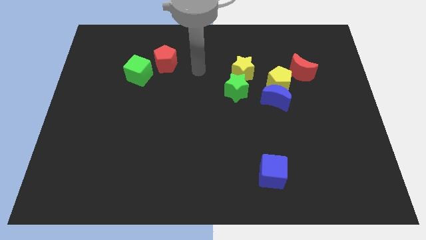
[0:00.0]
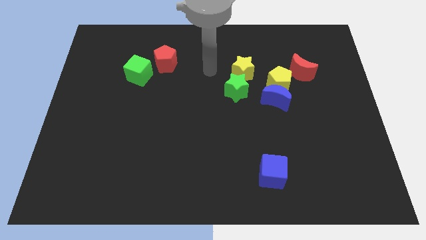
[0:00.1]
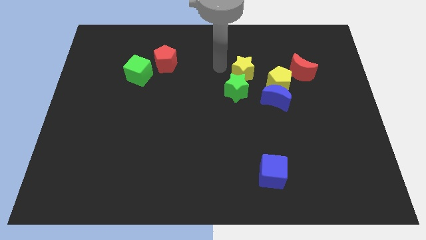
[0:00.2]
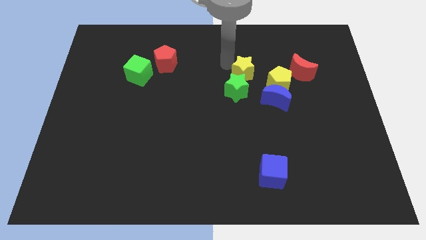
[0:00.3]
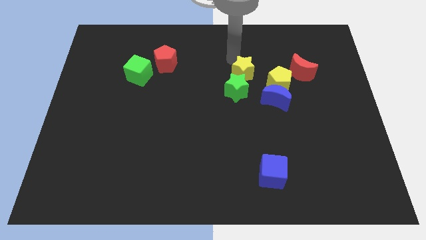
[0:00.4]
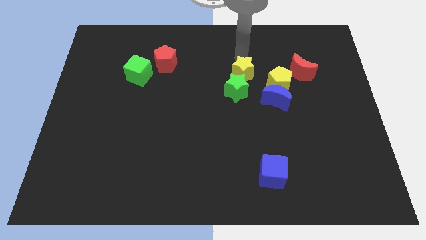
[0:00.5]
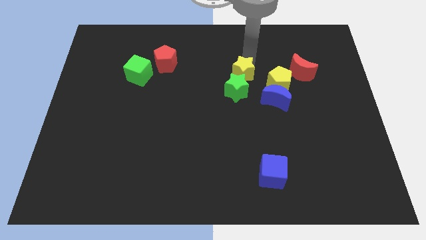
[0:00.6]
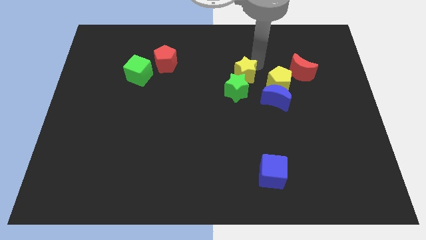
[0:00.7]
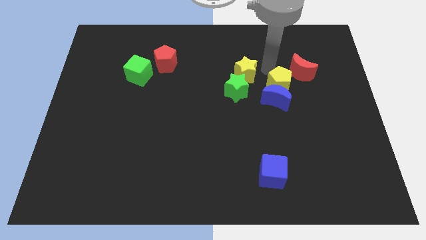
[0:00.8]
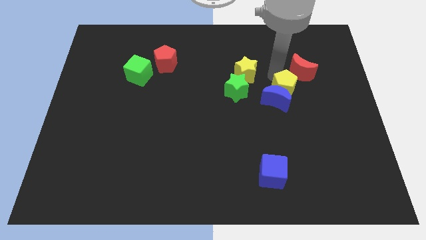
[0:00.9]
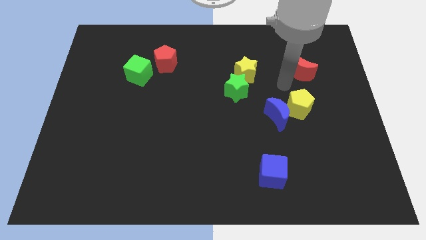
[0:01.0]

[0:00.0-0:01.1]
move the red moon away from the yellow pentagon

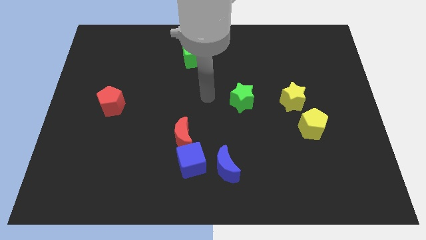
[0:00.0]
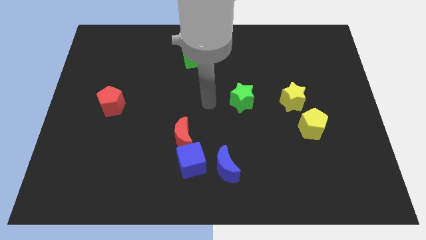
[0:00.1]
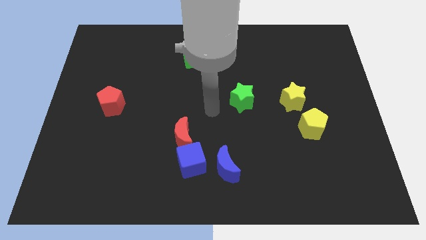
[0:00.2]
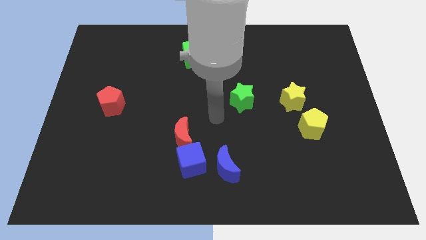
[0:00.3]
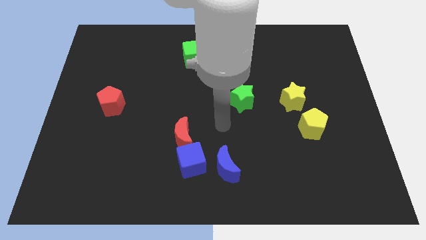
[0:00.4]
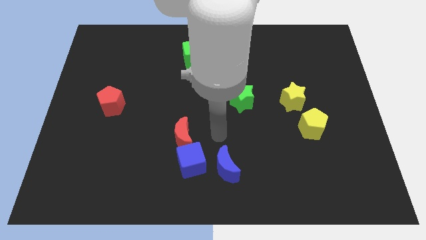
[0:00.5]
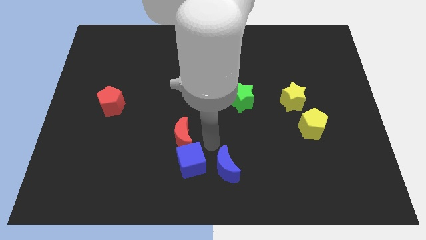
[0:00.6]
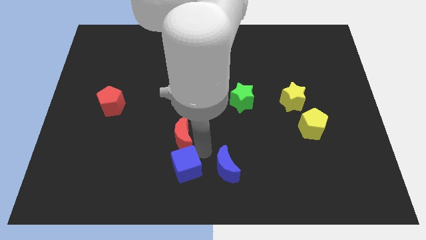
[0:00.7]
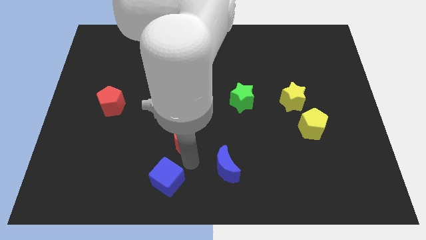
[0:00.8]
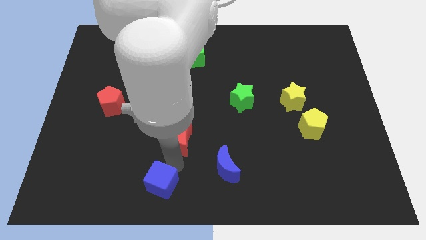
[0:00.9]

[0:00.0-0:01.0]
pull the red moon apart from the blue cube

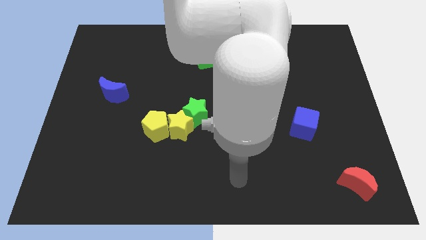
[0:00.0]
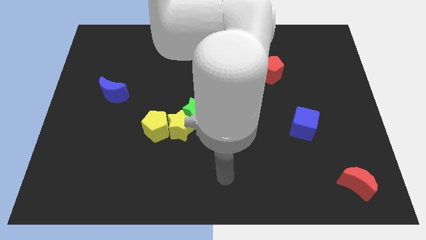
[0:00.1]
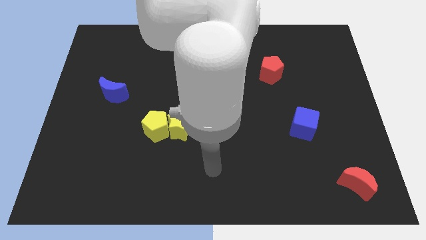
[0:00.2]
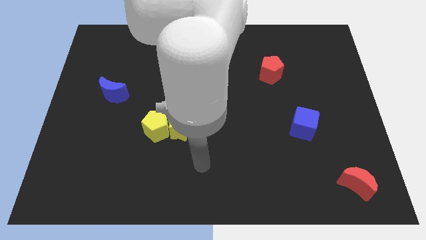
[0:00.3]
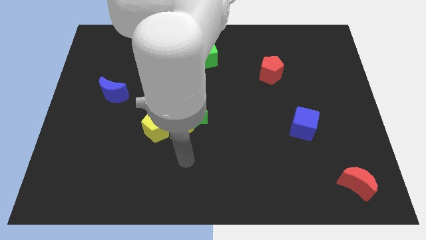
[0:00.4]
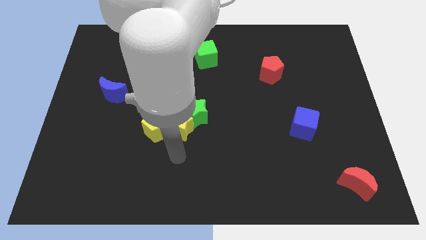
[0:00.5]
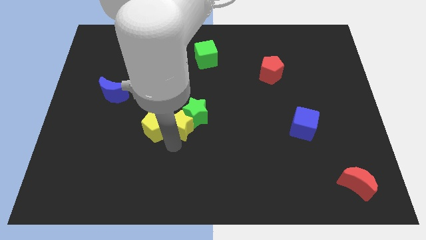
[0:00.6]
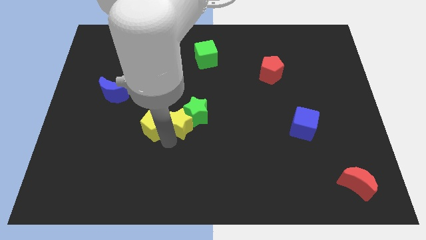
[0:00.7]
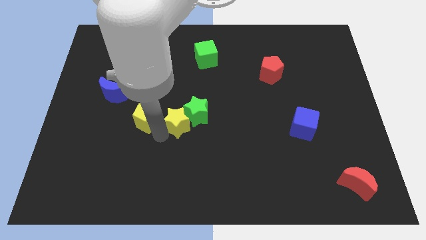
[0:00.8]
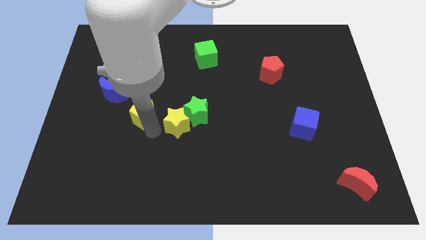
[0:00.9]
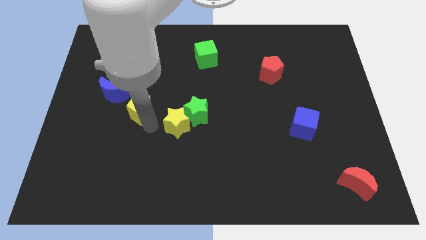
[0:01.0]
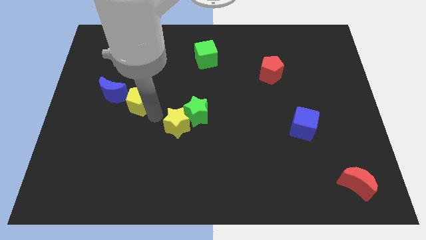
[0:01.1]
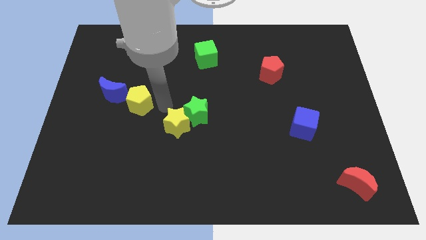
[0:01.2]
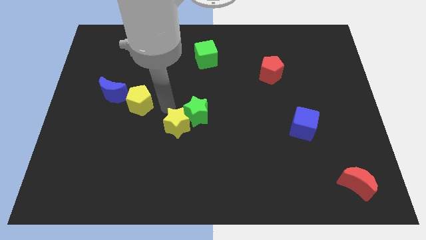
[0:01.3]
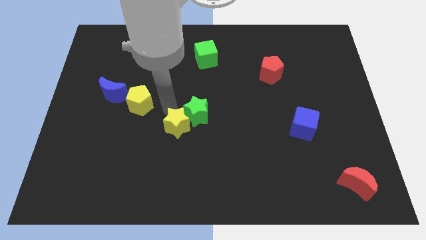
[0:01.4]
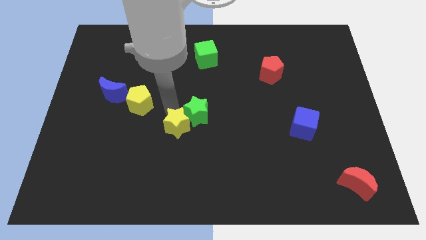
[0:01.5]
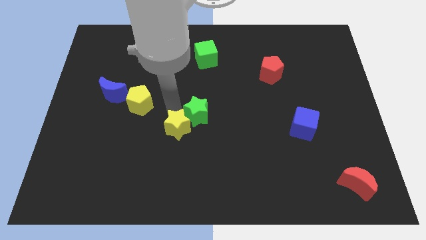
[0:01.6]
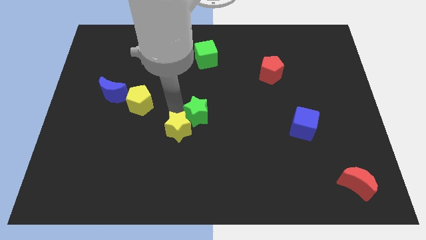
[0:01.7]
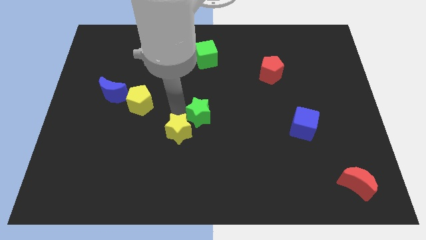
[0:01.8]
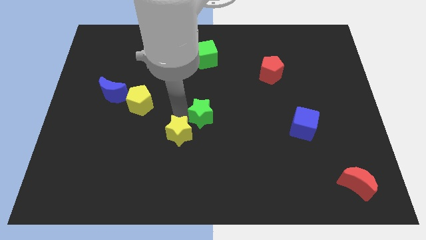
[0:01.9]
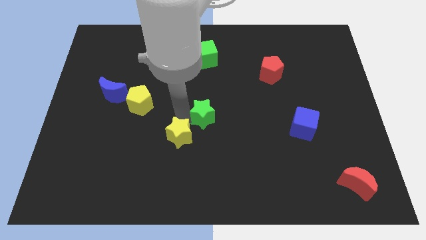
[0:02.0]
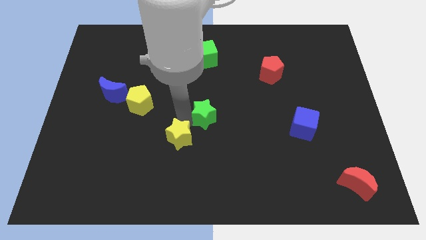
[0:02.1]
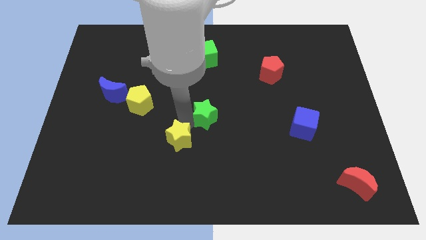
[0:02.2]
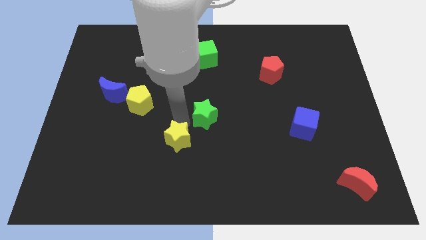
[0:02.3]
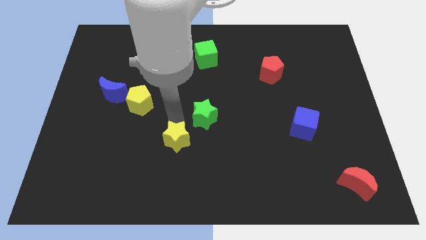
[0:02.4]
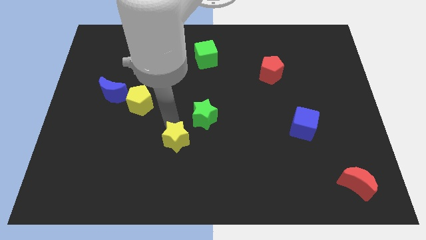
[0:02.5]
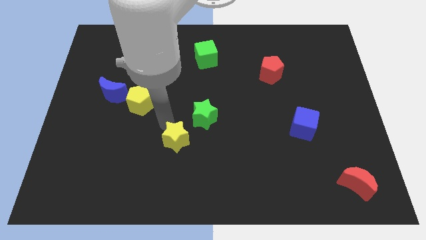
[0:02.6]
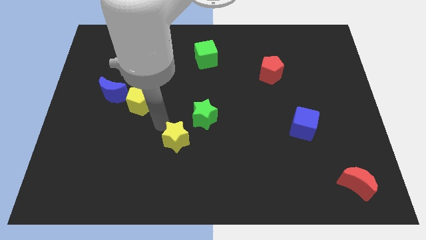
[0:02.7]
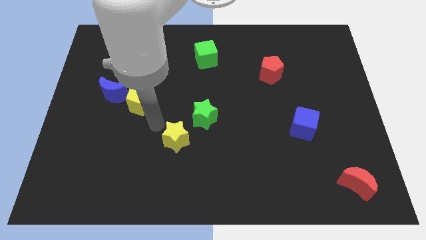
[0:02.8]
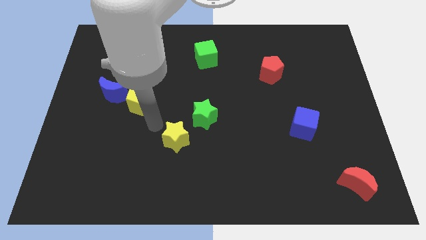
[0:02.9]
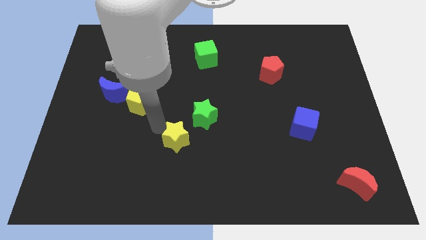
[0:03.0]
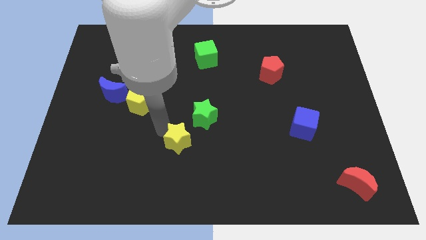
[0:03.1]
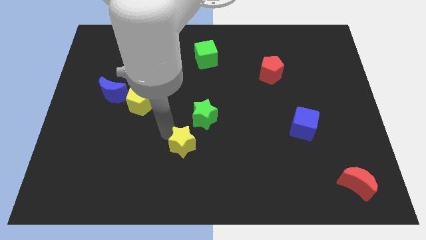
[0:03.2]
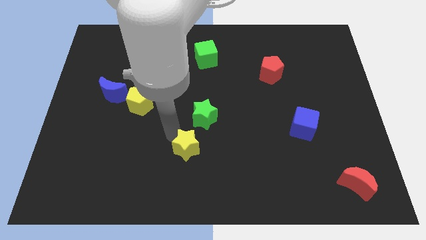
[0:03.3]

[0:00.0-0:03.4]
pull the yellow star apart from the green star and yellow pentagon

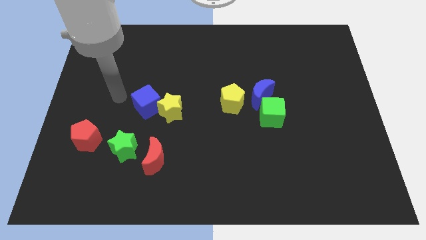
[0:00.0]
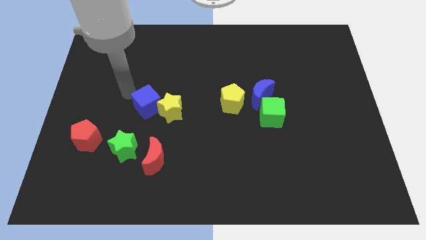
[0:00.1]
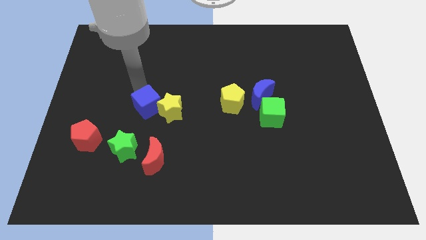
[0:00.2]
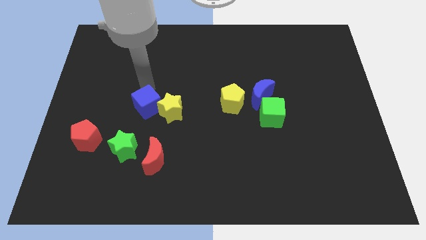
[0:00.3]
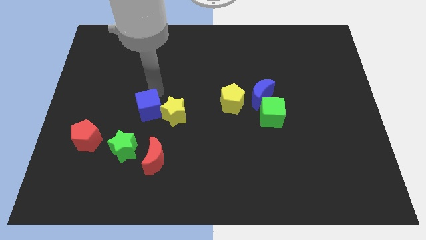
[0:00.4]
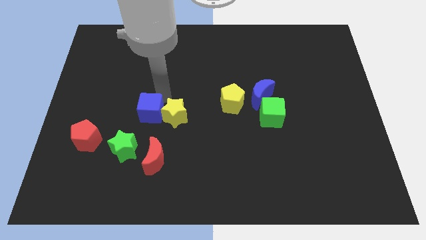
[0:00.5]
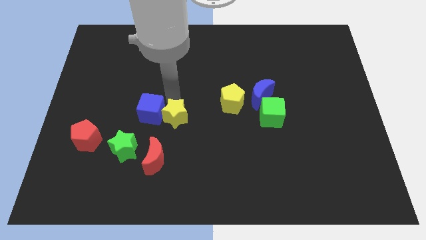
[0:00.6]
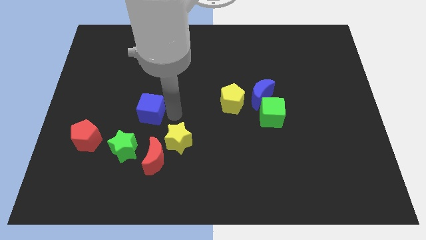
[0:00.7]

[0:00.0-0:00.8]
pull the blue cube apart from the yellow star

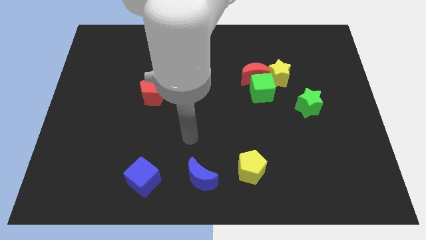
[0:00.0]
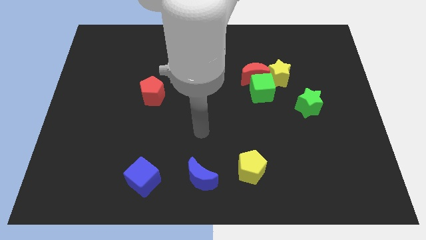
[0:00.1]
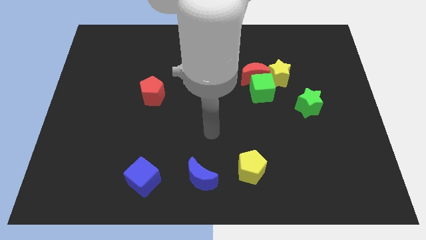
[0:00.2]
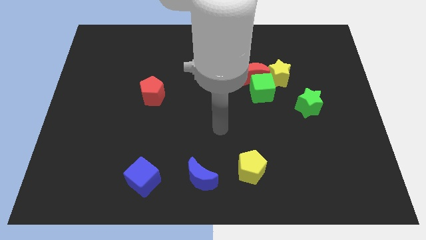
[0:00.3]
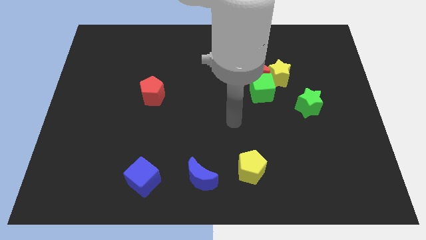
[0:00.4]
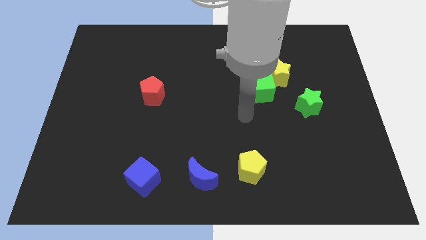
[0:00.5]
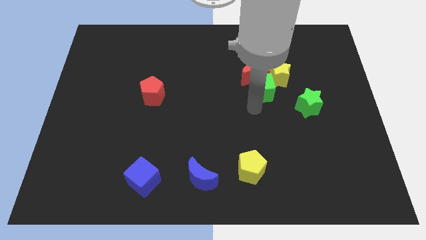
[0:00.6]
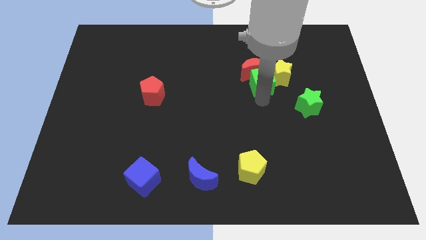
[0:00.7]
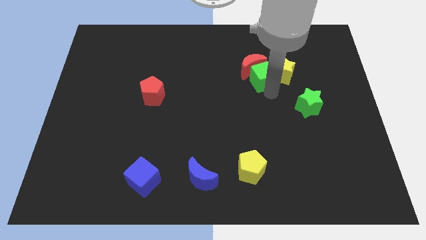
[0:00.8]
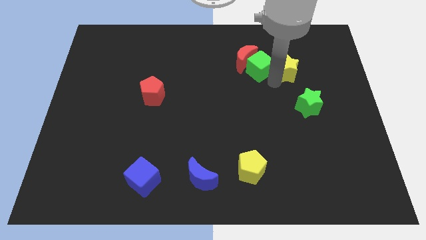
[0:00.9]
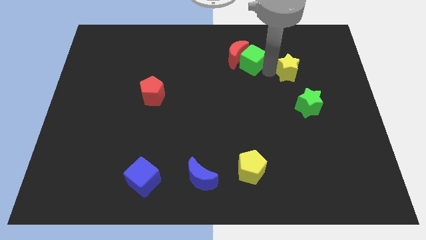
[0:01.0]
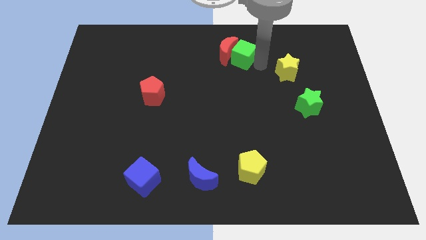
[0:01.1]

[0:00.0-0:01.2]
pull the red moon apart from the green cube and yellow star

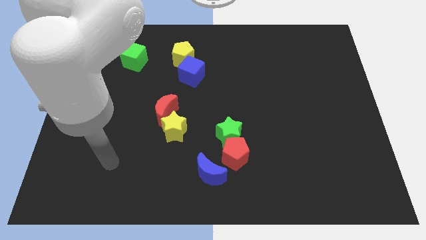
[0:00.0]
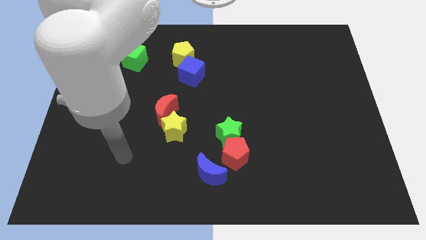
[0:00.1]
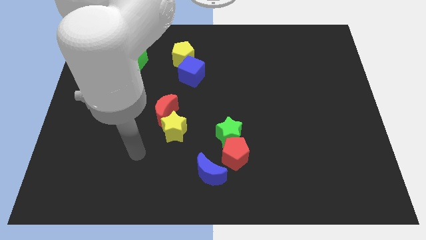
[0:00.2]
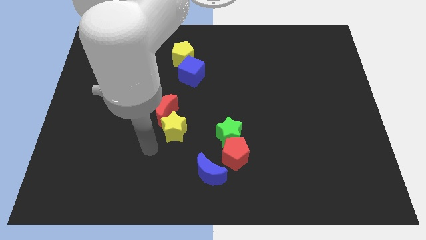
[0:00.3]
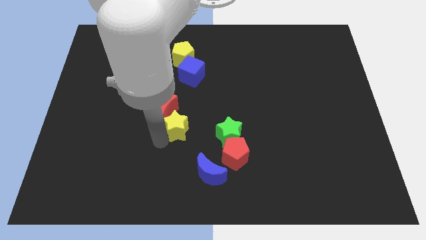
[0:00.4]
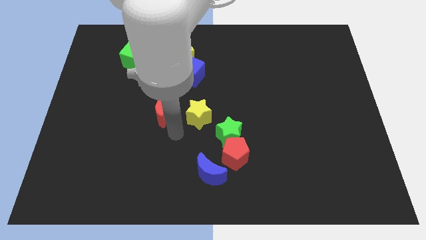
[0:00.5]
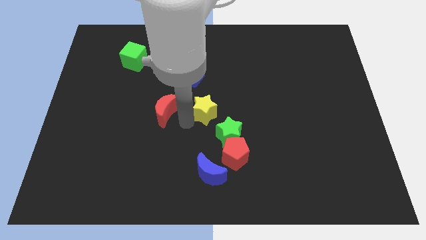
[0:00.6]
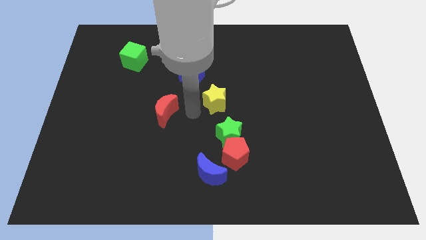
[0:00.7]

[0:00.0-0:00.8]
separate the red moon from the yellow star

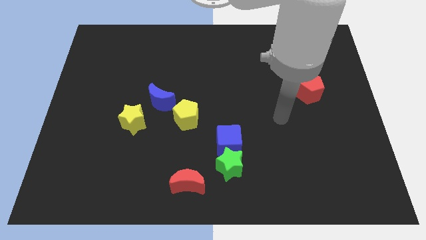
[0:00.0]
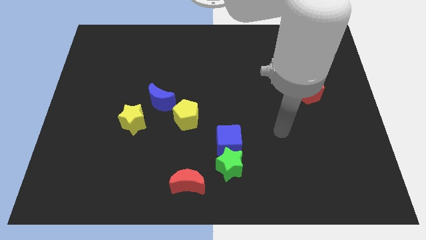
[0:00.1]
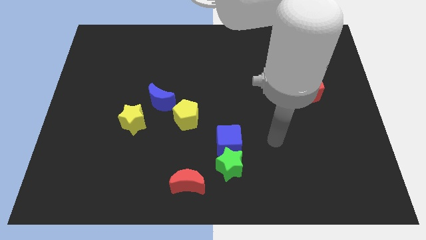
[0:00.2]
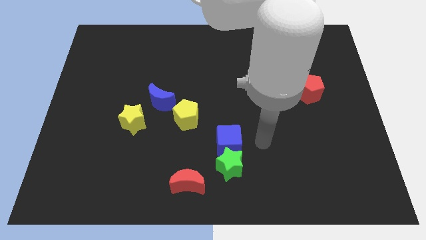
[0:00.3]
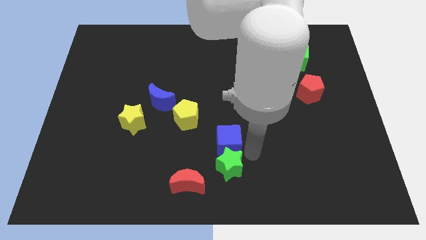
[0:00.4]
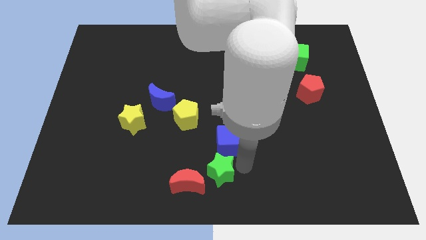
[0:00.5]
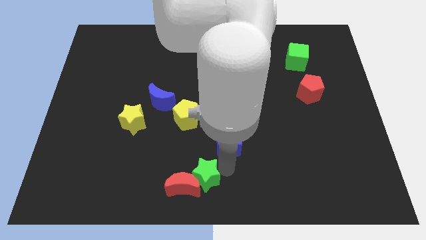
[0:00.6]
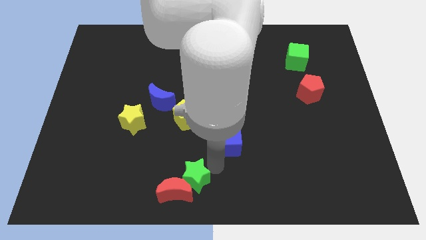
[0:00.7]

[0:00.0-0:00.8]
pull the blue cube apart from the green star
